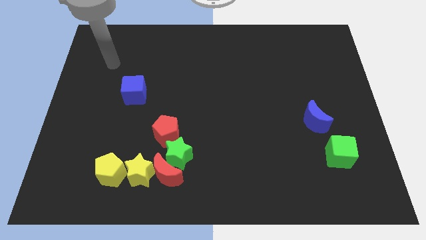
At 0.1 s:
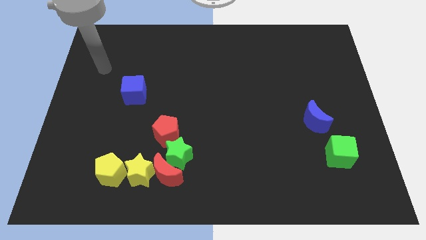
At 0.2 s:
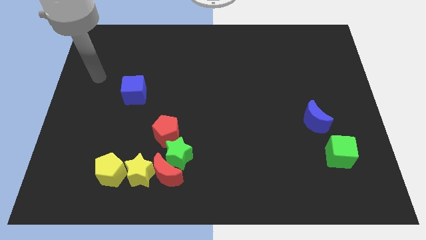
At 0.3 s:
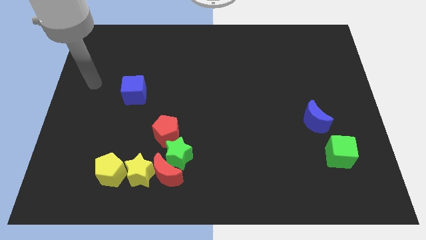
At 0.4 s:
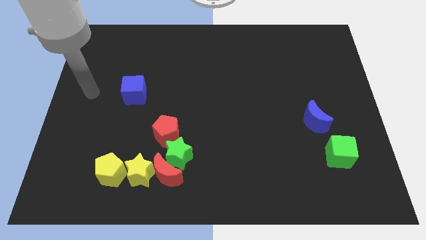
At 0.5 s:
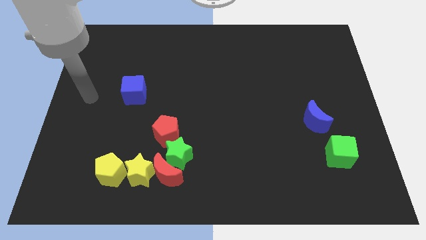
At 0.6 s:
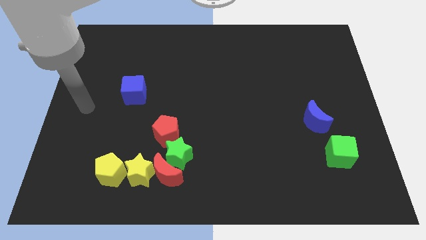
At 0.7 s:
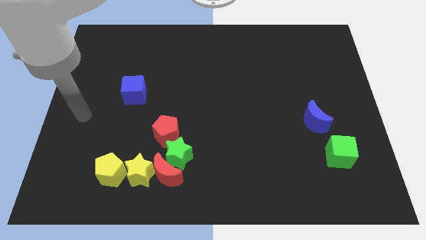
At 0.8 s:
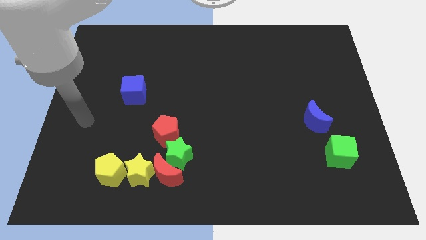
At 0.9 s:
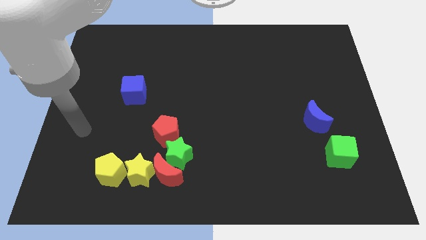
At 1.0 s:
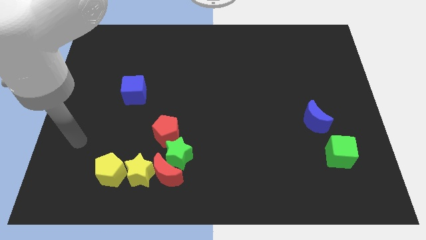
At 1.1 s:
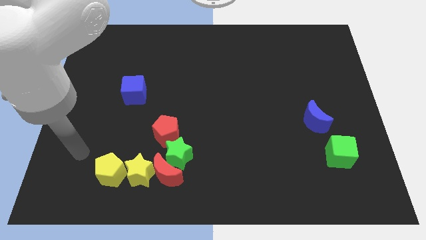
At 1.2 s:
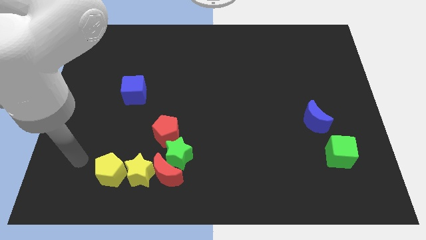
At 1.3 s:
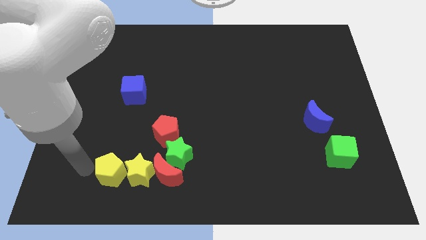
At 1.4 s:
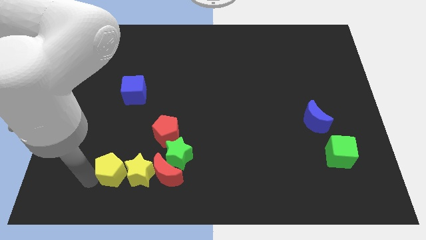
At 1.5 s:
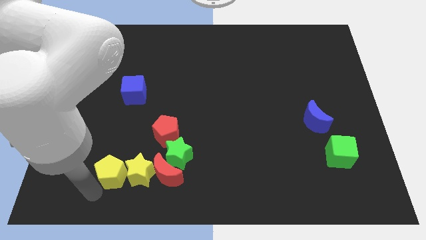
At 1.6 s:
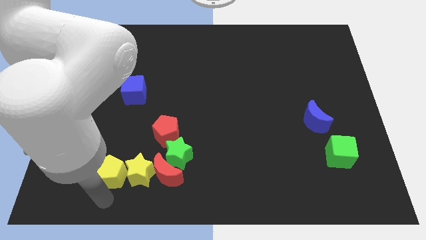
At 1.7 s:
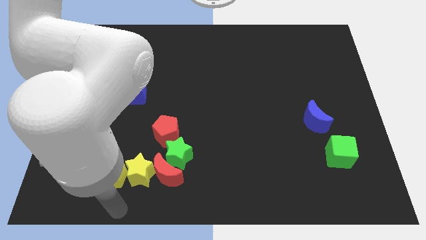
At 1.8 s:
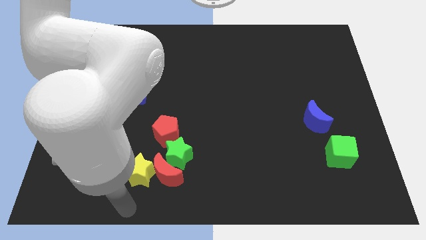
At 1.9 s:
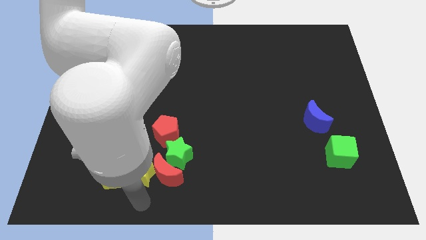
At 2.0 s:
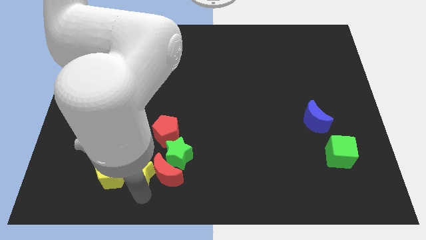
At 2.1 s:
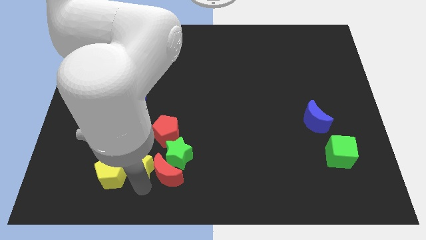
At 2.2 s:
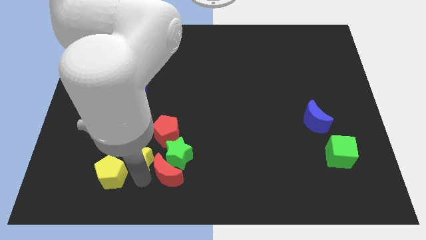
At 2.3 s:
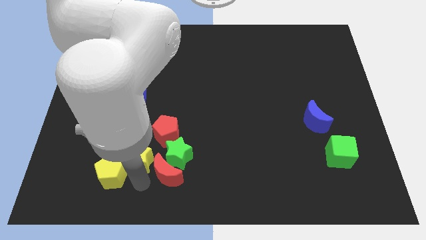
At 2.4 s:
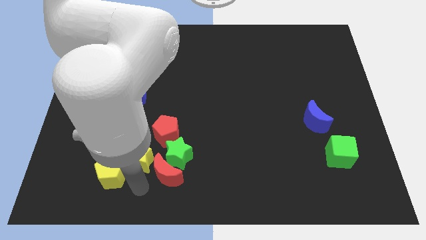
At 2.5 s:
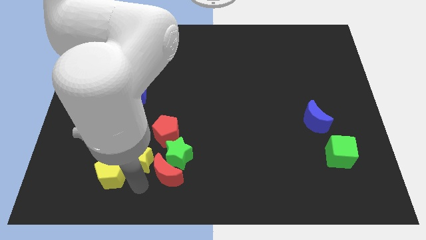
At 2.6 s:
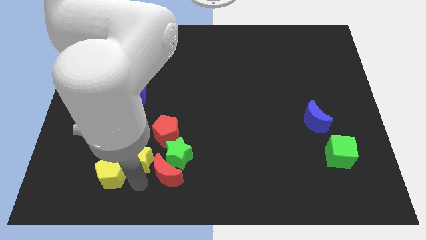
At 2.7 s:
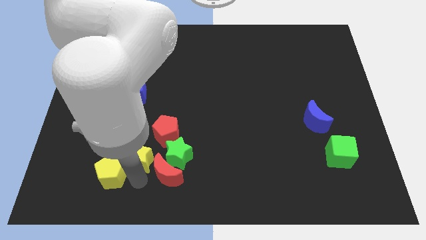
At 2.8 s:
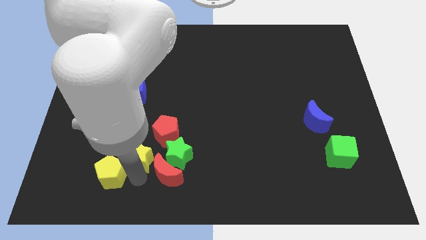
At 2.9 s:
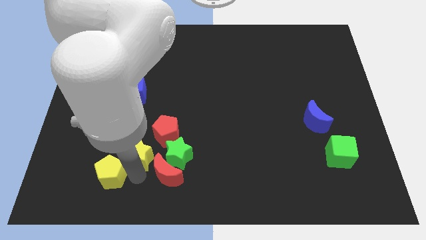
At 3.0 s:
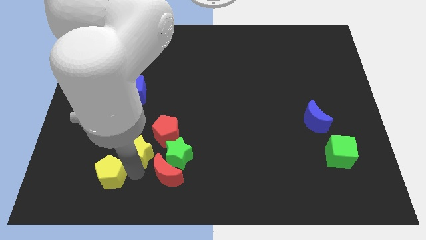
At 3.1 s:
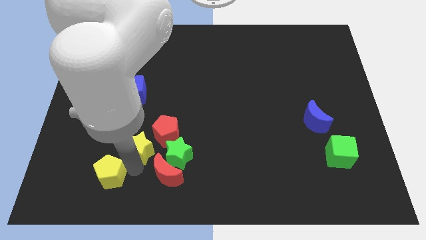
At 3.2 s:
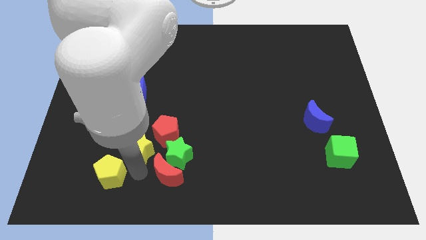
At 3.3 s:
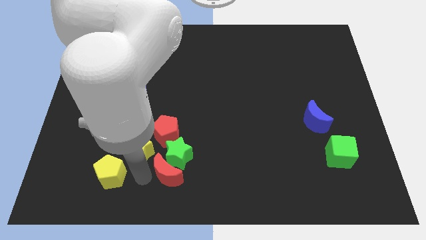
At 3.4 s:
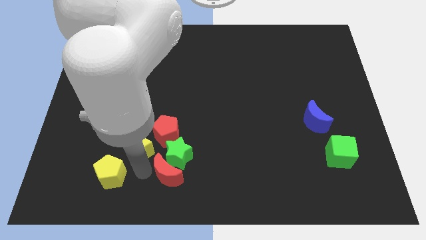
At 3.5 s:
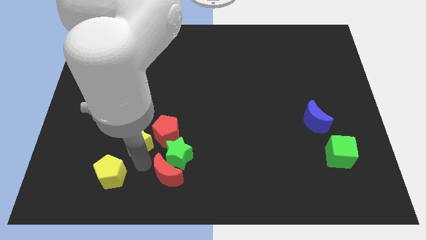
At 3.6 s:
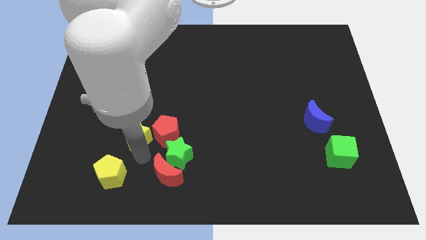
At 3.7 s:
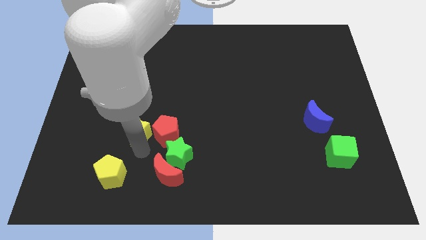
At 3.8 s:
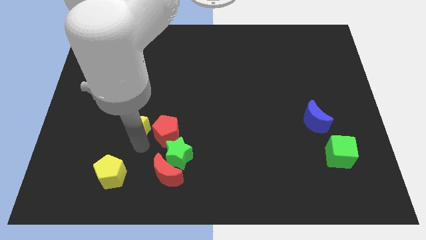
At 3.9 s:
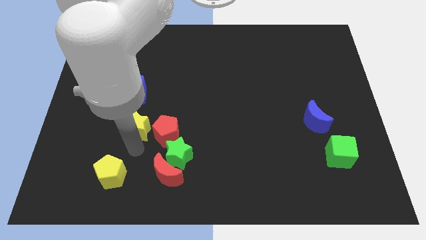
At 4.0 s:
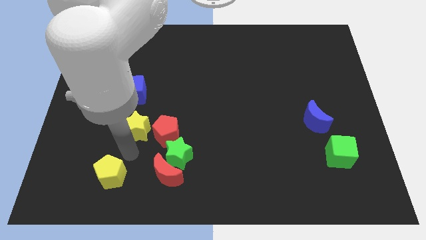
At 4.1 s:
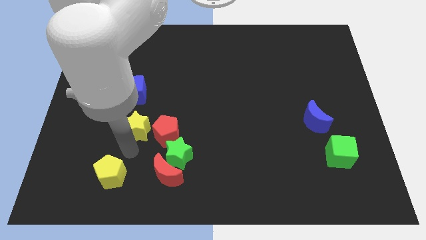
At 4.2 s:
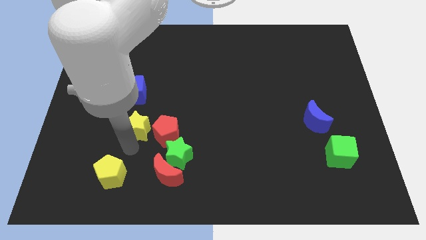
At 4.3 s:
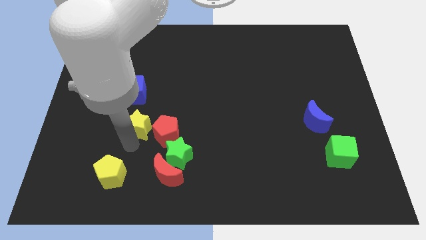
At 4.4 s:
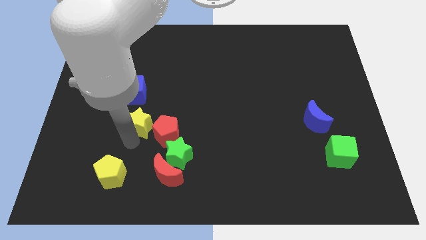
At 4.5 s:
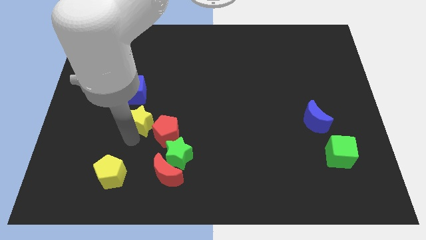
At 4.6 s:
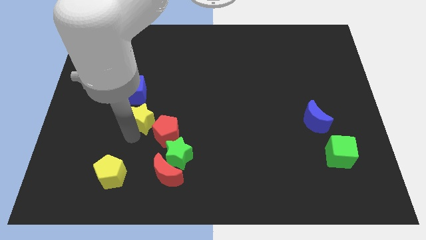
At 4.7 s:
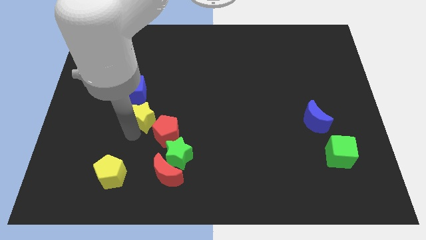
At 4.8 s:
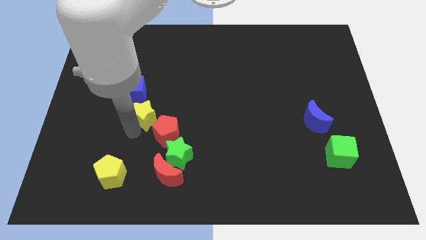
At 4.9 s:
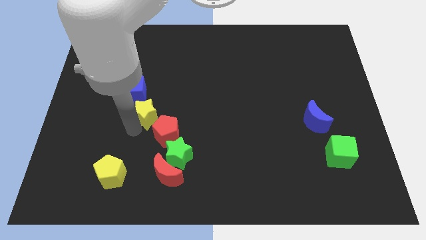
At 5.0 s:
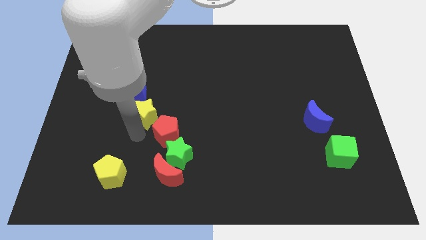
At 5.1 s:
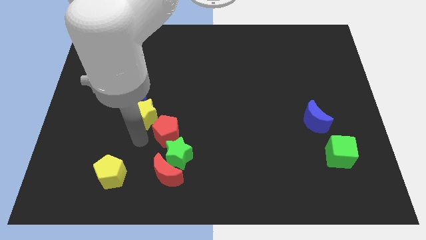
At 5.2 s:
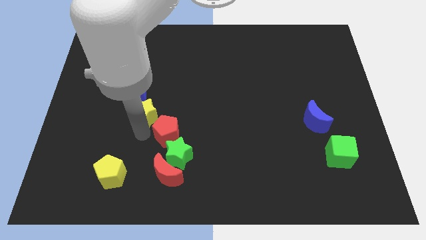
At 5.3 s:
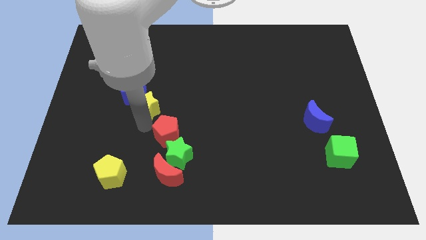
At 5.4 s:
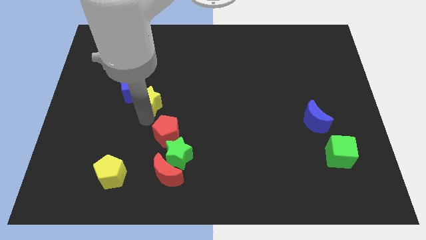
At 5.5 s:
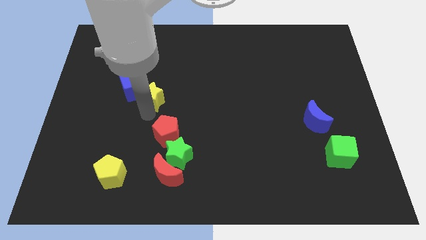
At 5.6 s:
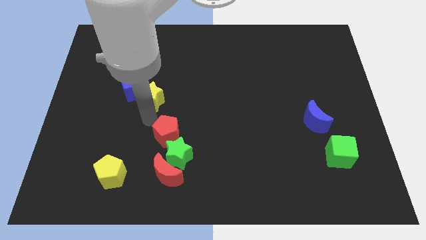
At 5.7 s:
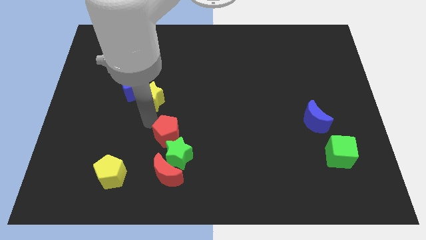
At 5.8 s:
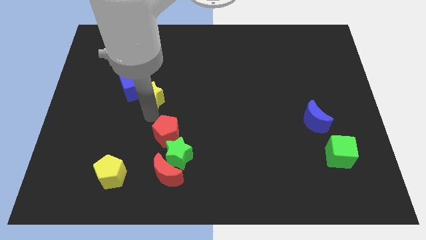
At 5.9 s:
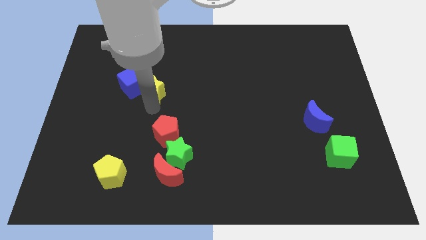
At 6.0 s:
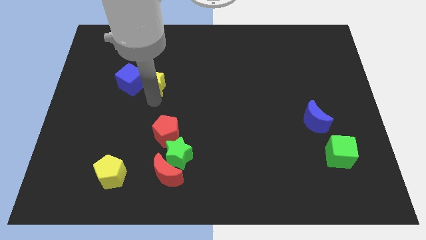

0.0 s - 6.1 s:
push the yellow star to the top right of the blue cube
